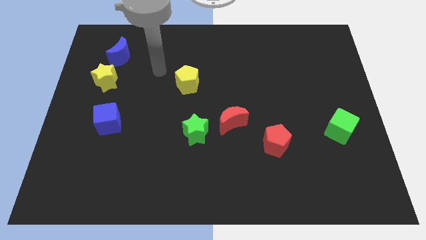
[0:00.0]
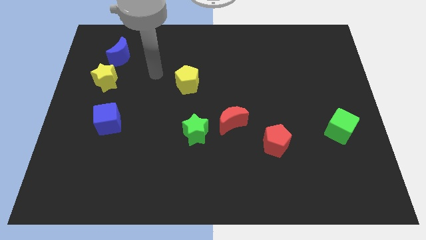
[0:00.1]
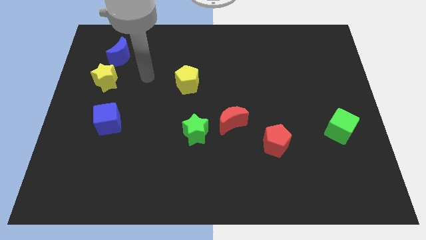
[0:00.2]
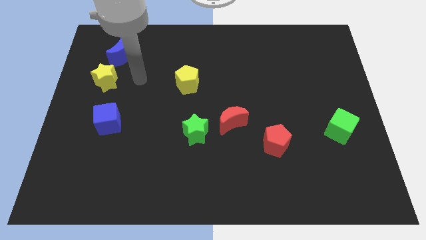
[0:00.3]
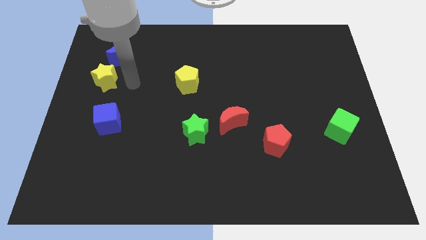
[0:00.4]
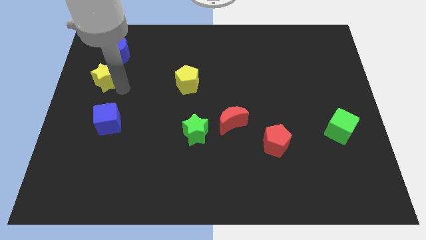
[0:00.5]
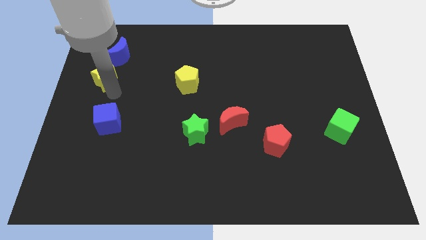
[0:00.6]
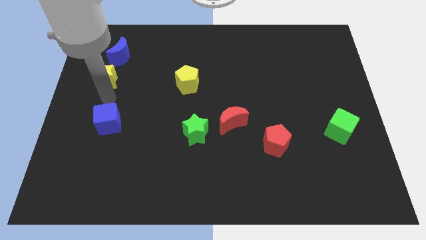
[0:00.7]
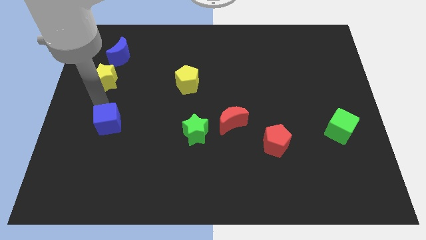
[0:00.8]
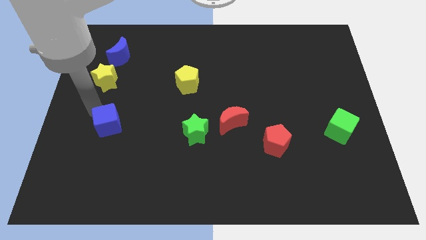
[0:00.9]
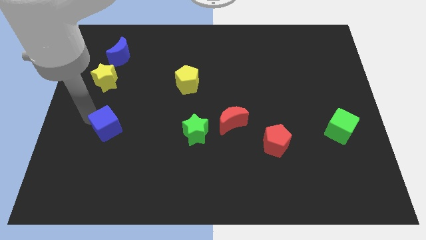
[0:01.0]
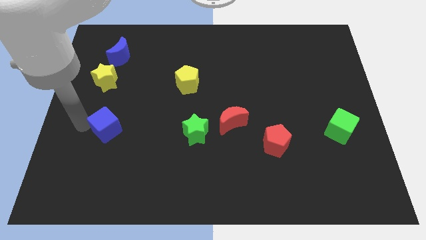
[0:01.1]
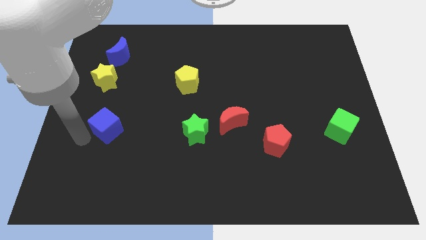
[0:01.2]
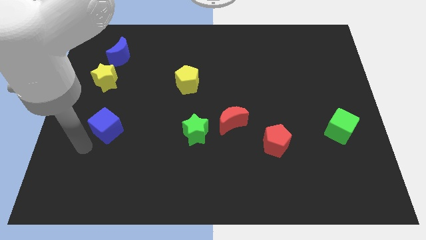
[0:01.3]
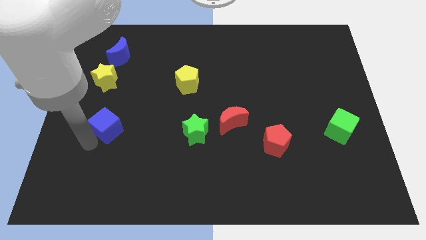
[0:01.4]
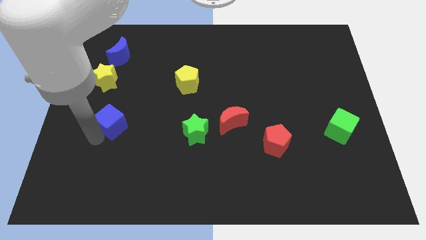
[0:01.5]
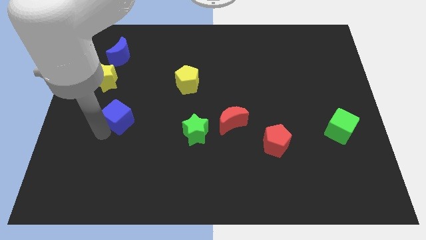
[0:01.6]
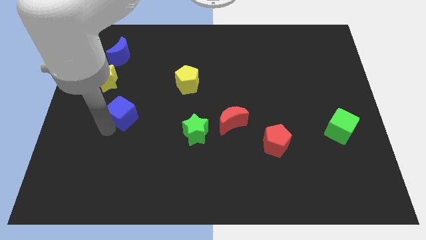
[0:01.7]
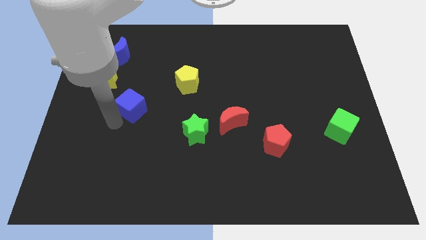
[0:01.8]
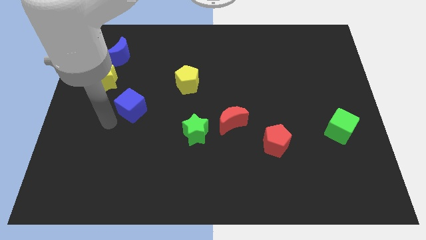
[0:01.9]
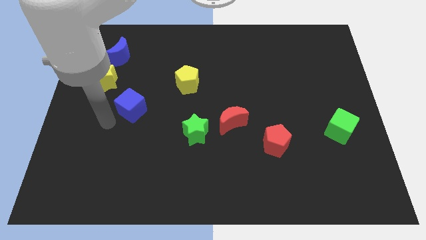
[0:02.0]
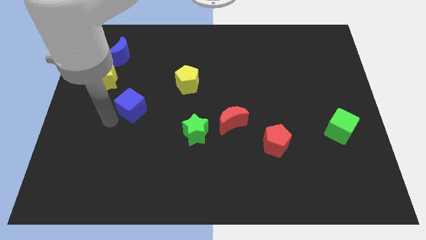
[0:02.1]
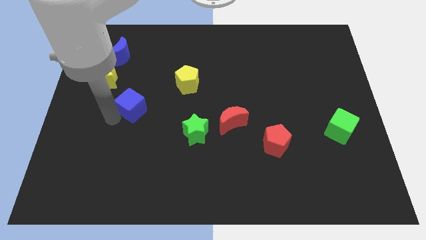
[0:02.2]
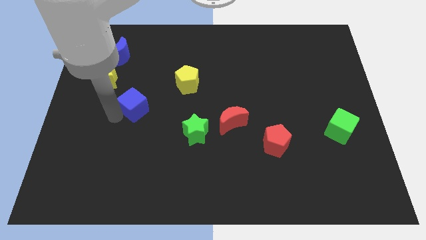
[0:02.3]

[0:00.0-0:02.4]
slide the blue cube a little bit diagonally up and to the right

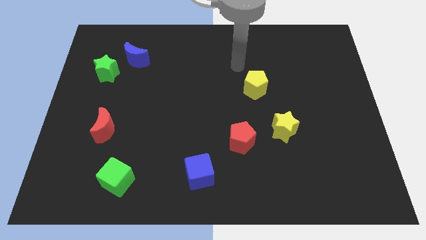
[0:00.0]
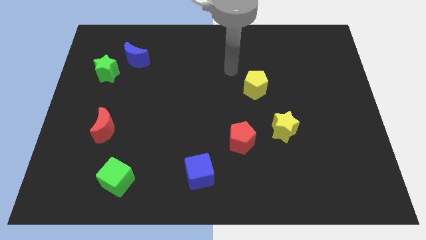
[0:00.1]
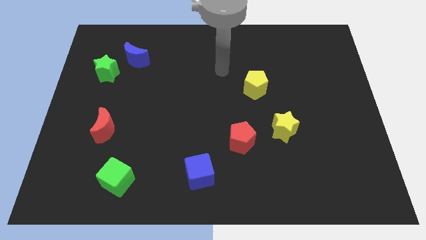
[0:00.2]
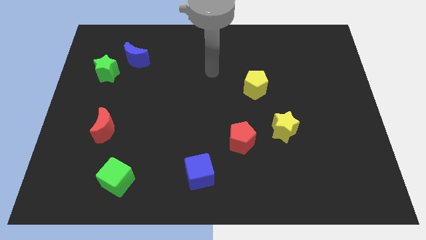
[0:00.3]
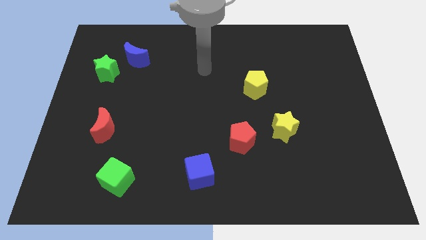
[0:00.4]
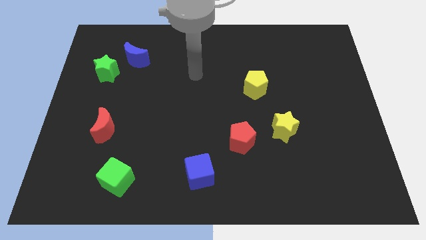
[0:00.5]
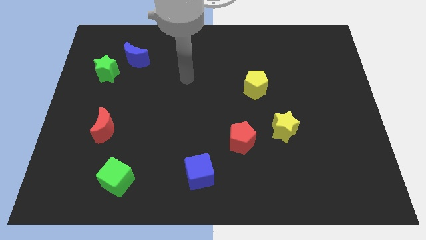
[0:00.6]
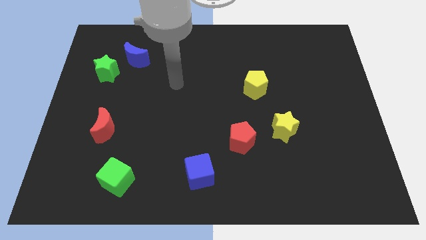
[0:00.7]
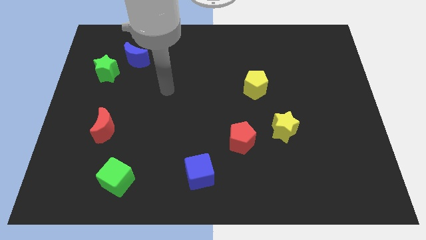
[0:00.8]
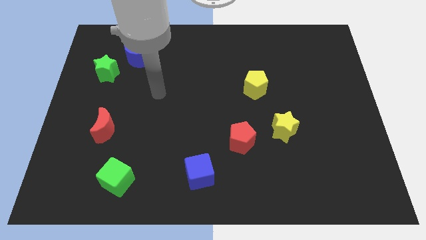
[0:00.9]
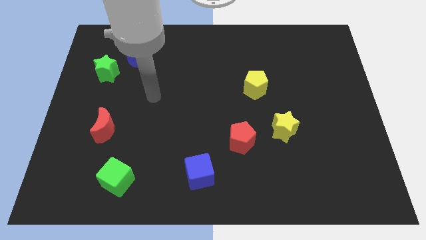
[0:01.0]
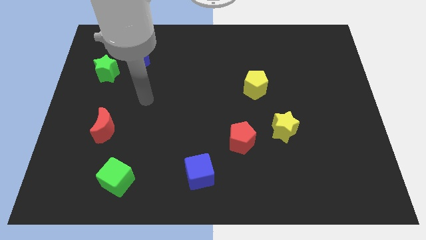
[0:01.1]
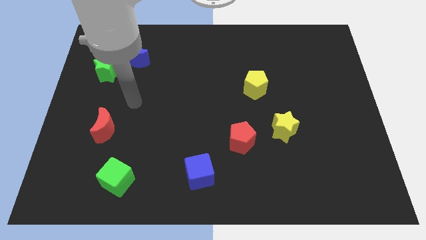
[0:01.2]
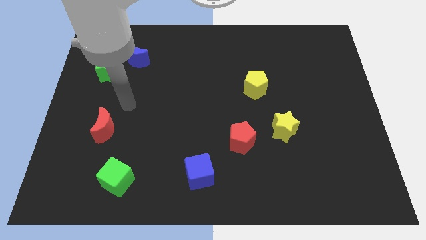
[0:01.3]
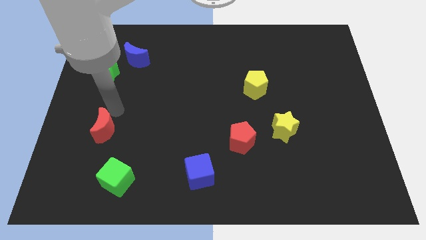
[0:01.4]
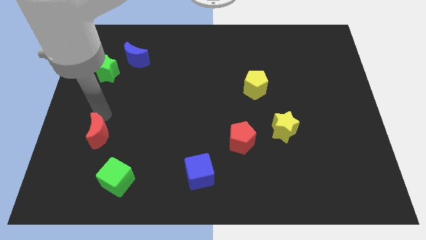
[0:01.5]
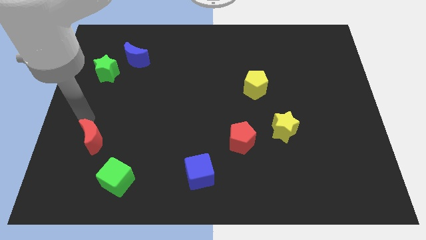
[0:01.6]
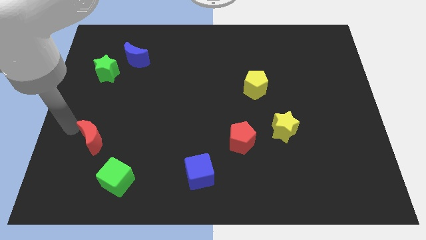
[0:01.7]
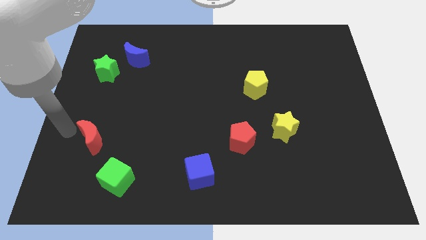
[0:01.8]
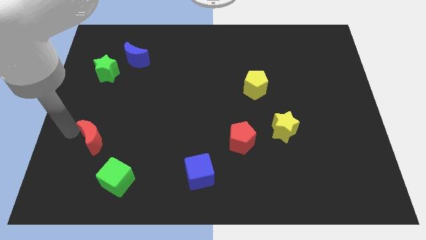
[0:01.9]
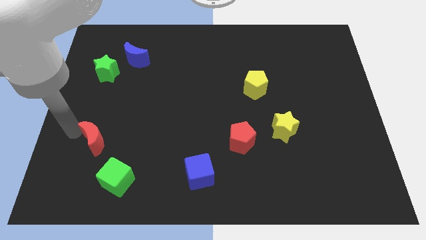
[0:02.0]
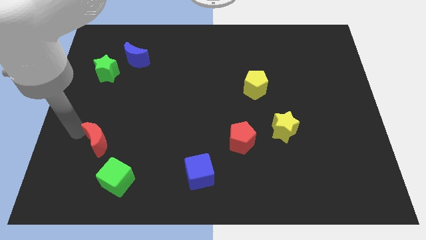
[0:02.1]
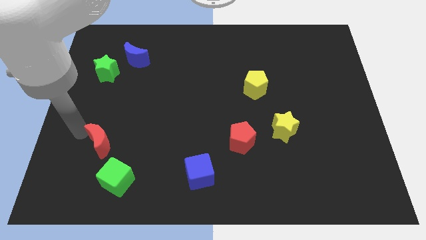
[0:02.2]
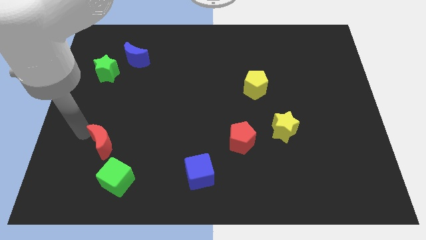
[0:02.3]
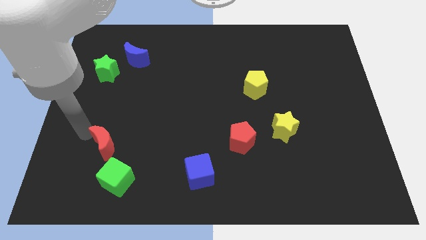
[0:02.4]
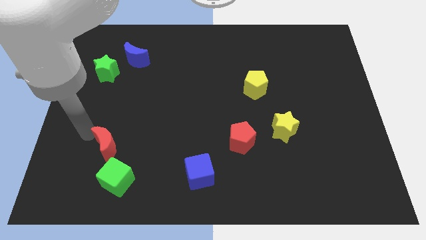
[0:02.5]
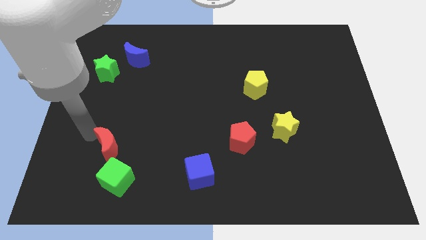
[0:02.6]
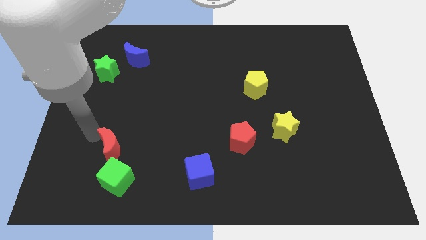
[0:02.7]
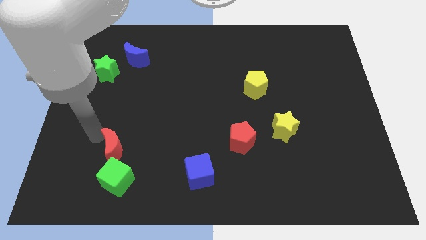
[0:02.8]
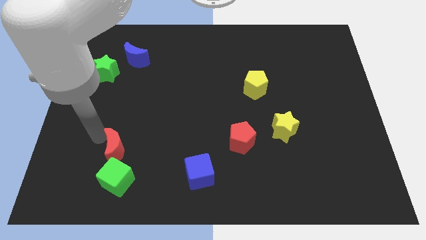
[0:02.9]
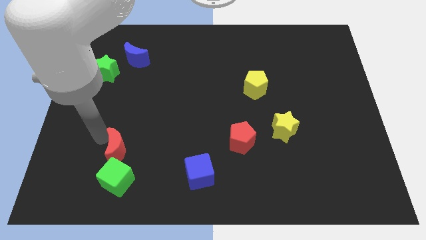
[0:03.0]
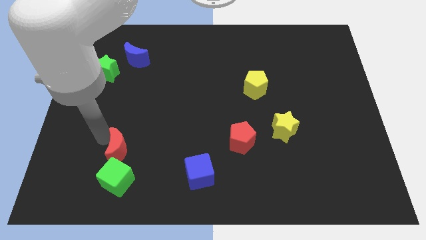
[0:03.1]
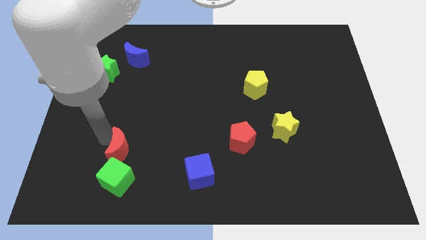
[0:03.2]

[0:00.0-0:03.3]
slightly slide the red moon down and right

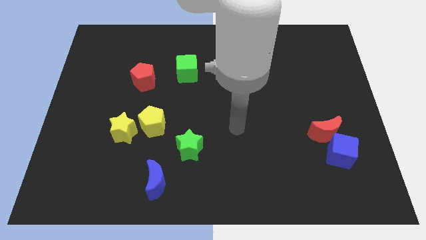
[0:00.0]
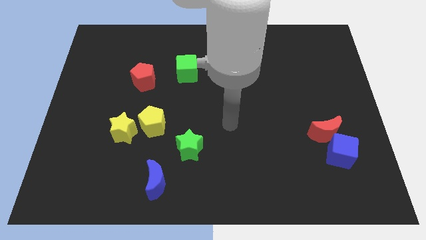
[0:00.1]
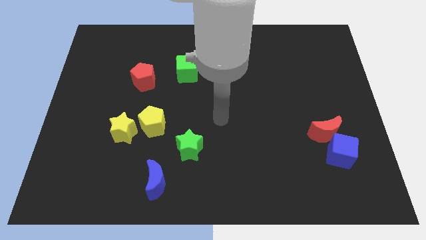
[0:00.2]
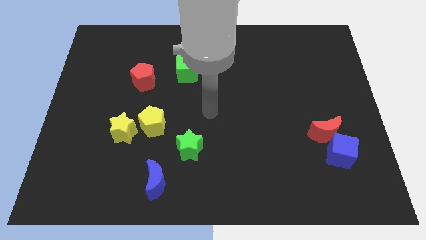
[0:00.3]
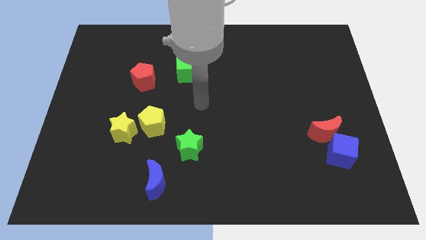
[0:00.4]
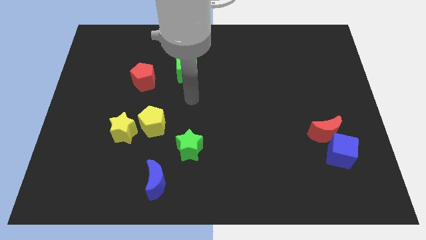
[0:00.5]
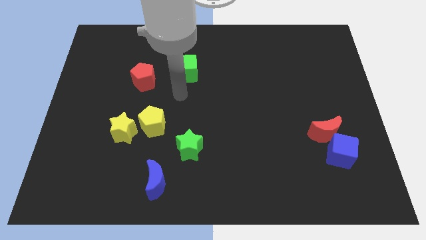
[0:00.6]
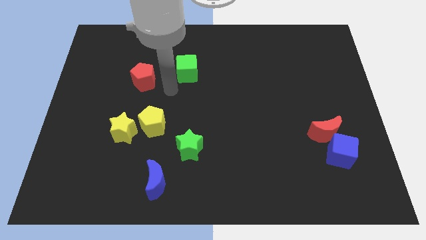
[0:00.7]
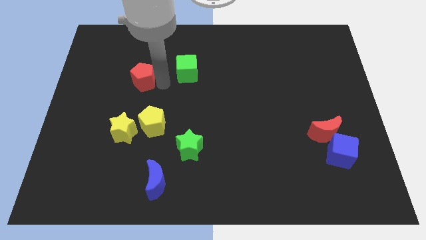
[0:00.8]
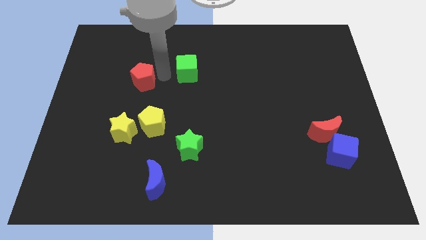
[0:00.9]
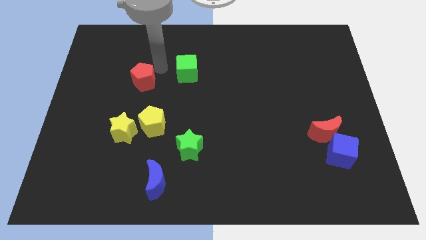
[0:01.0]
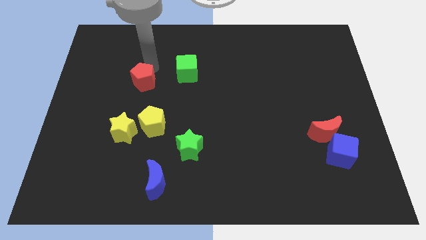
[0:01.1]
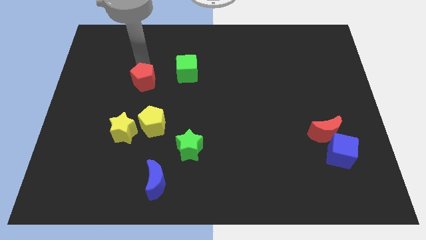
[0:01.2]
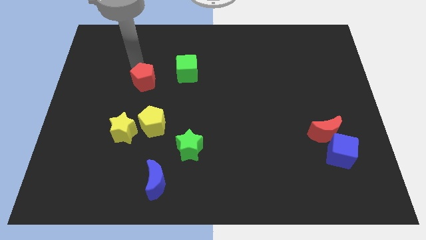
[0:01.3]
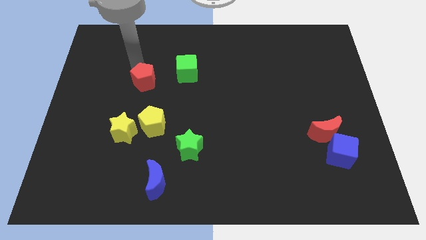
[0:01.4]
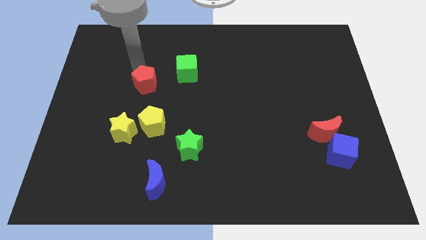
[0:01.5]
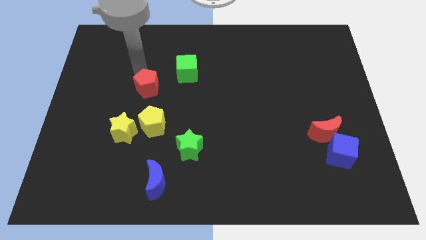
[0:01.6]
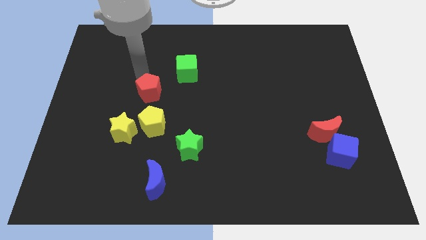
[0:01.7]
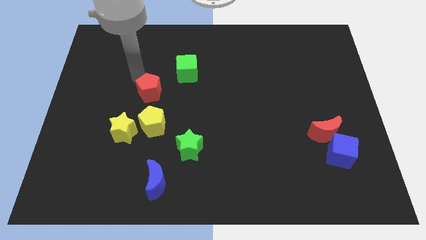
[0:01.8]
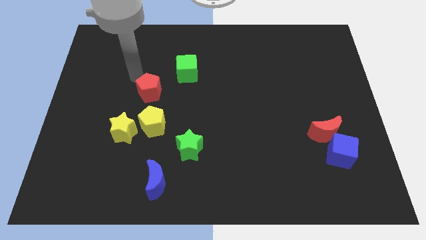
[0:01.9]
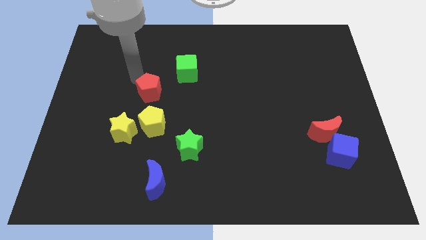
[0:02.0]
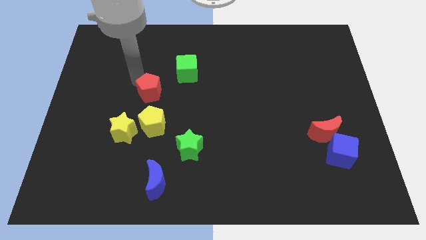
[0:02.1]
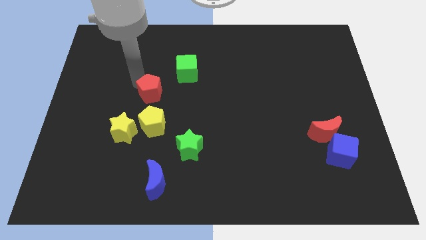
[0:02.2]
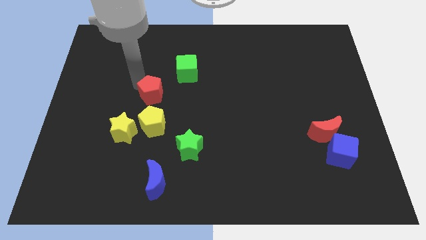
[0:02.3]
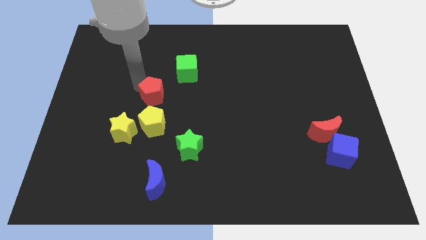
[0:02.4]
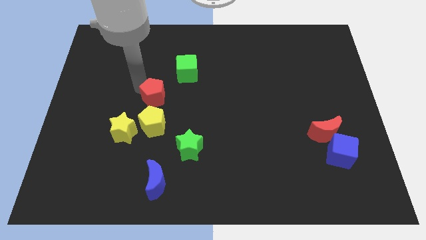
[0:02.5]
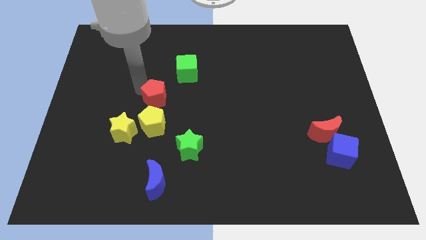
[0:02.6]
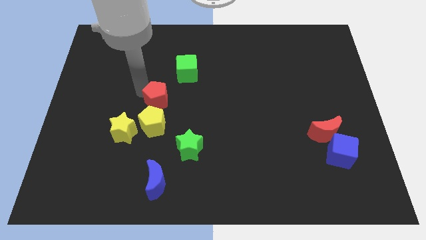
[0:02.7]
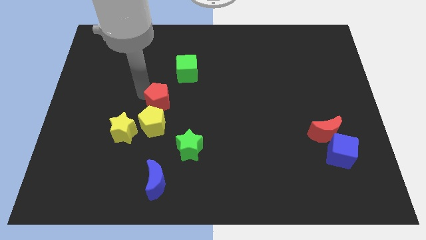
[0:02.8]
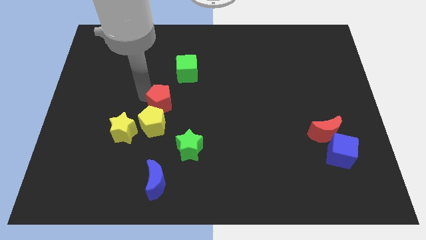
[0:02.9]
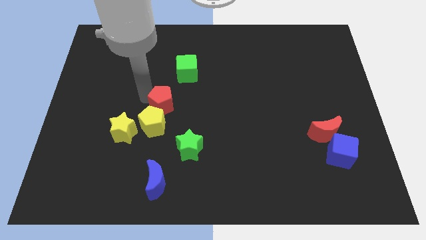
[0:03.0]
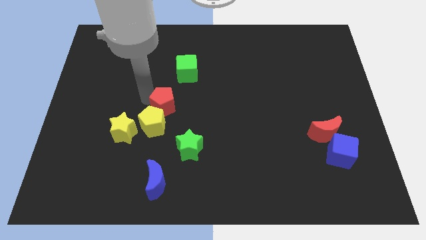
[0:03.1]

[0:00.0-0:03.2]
move the red pentagon down a little
